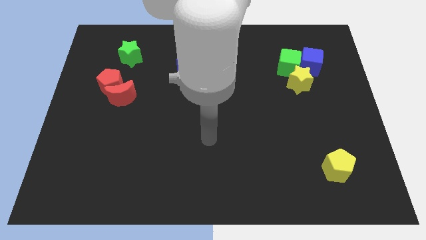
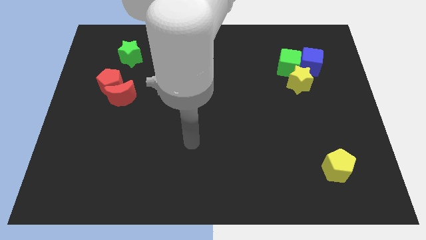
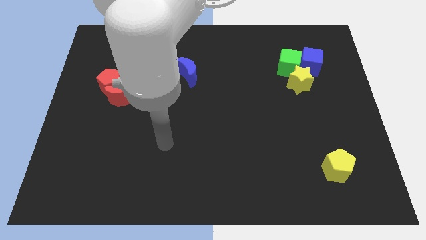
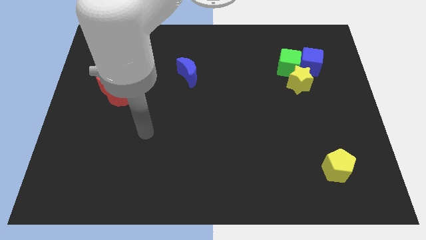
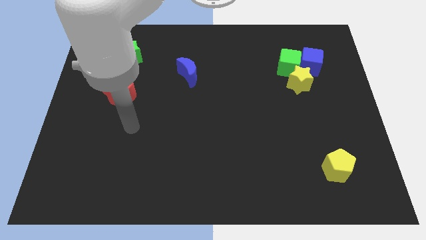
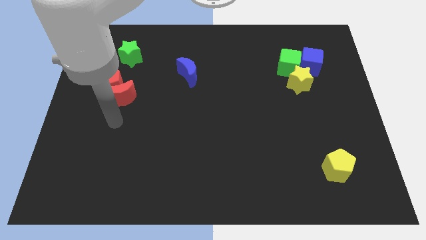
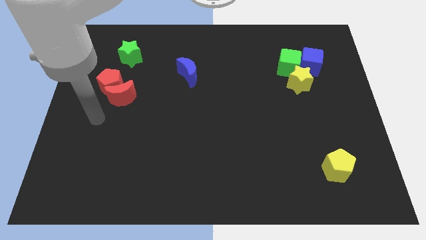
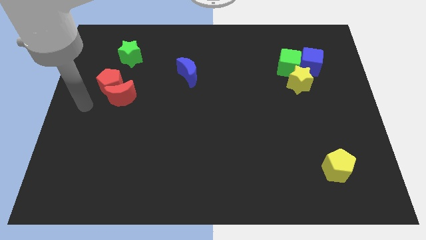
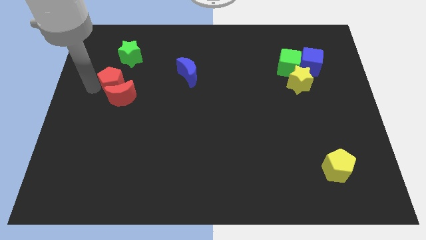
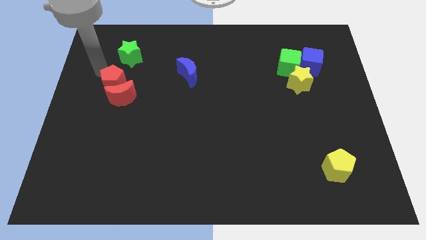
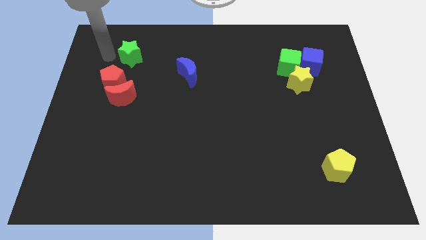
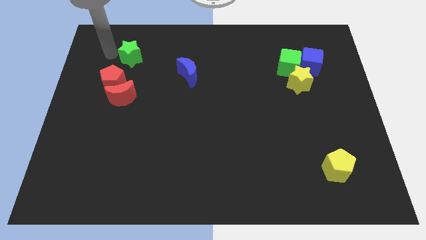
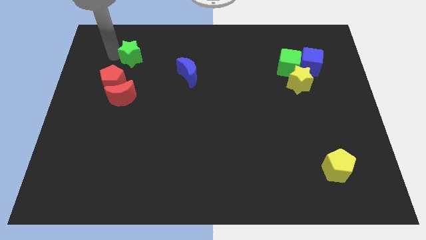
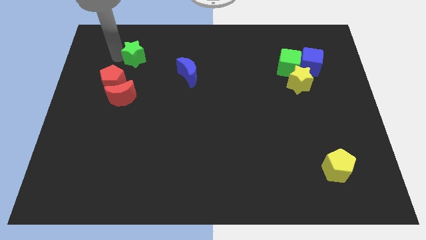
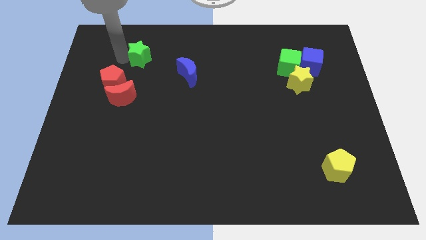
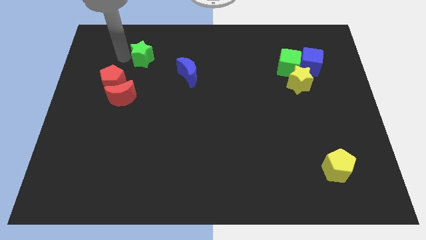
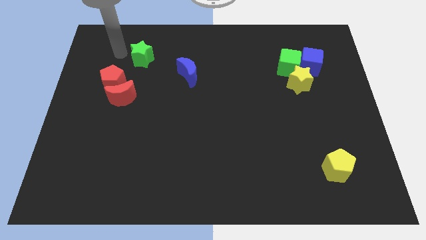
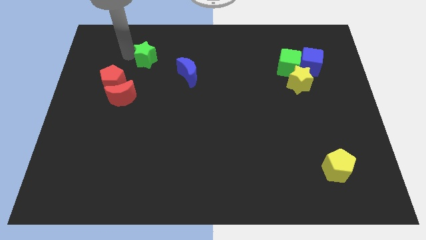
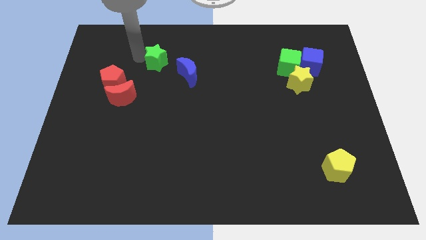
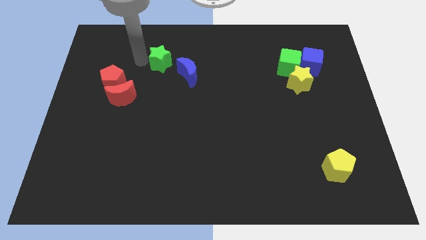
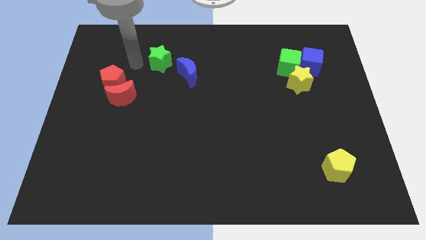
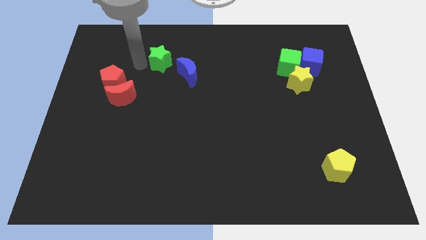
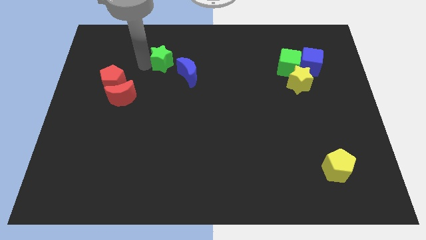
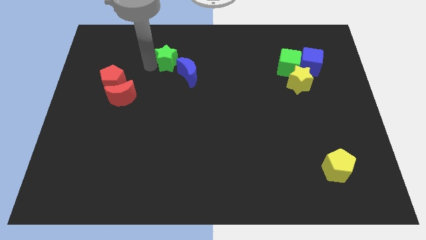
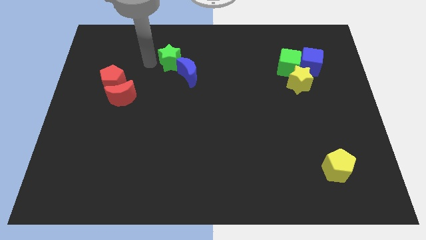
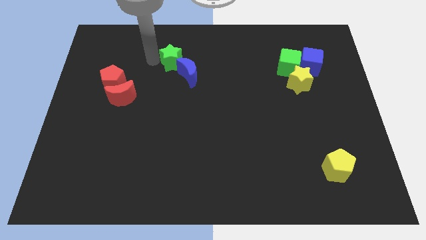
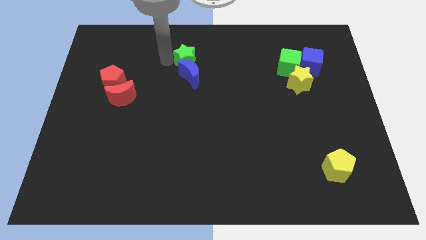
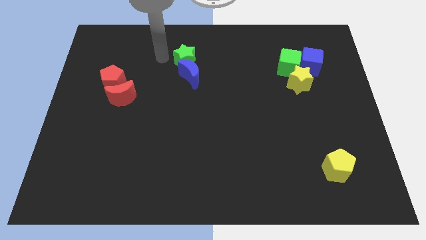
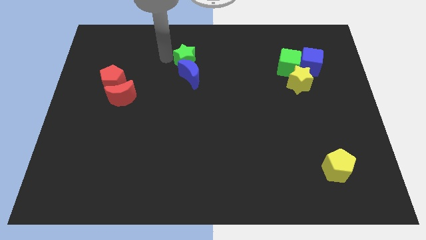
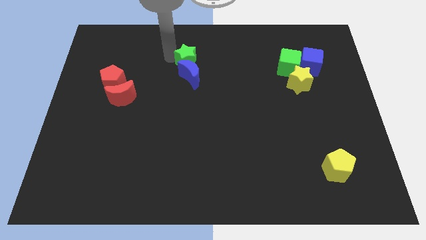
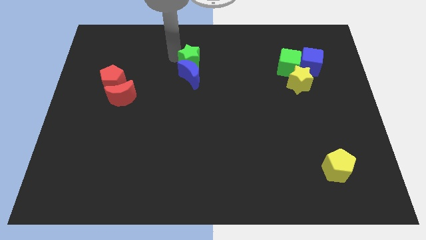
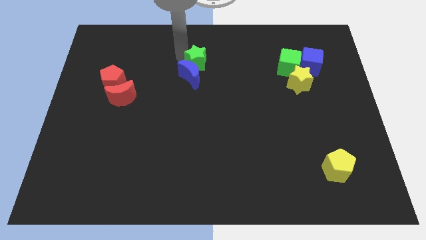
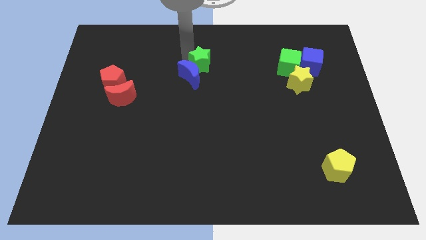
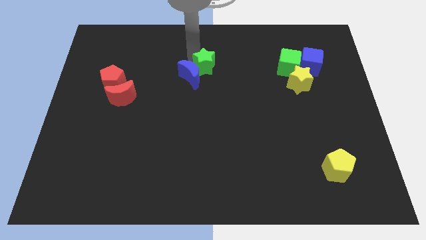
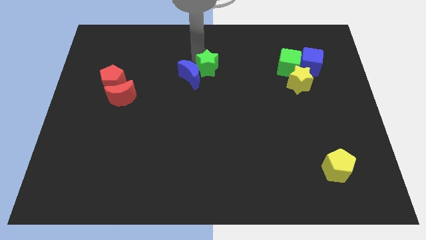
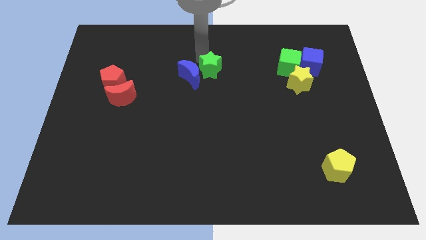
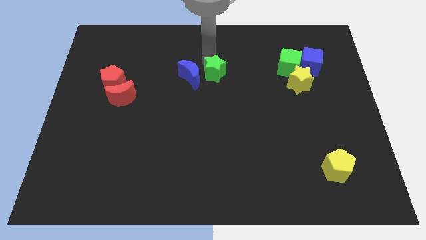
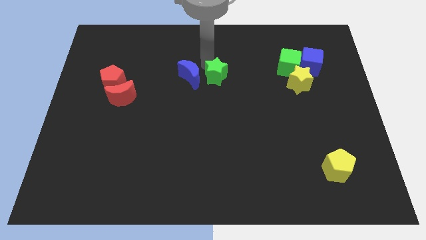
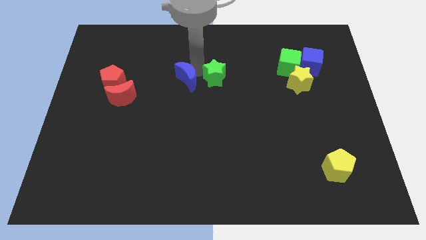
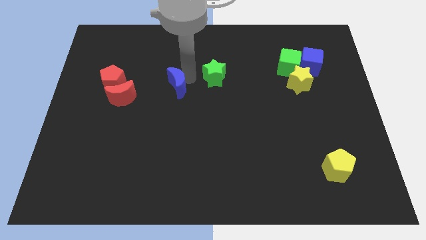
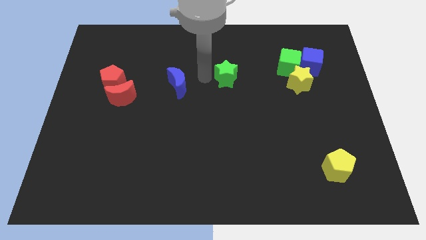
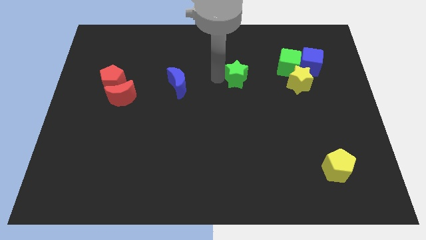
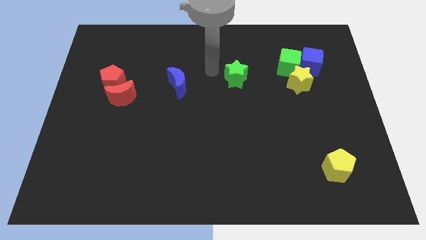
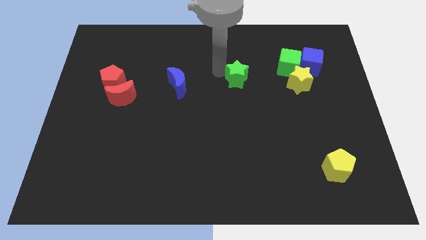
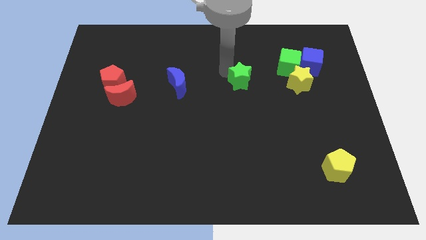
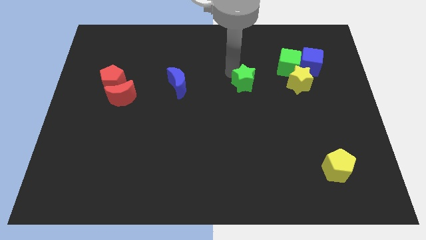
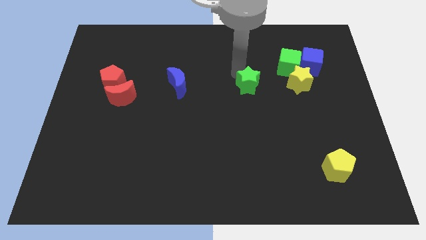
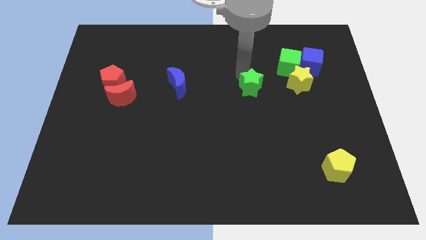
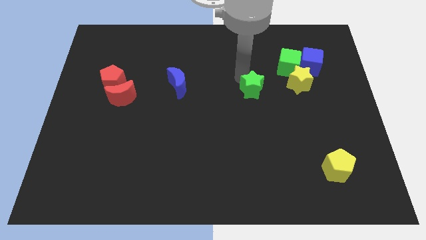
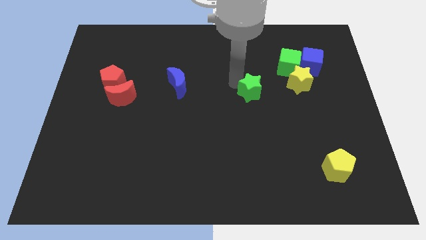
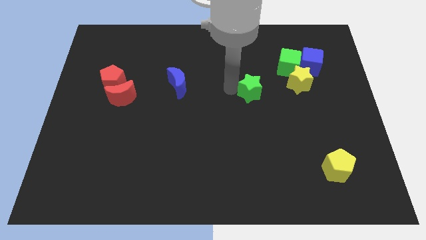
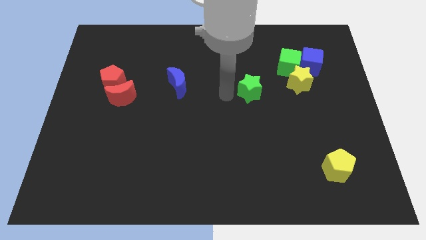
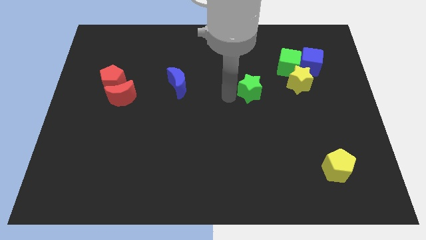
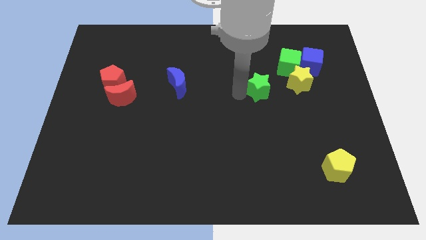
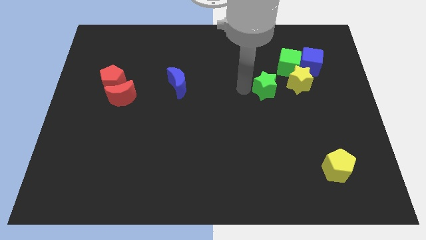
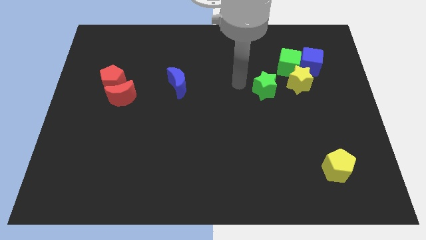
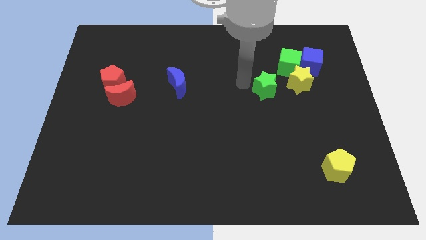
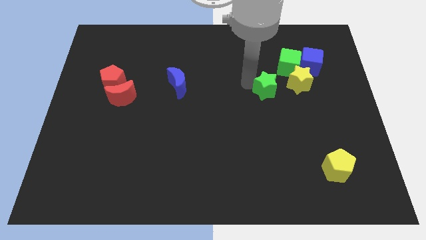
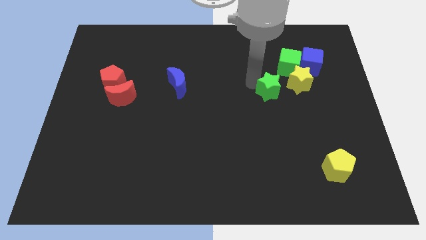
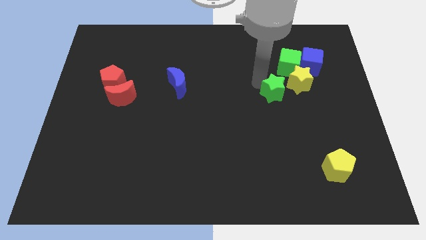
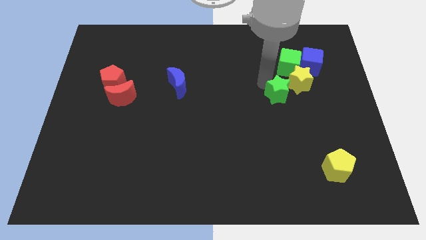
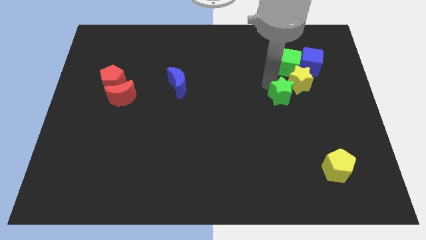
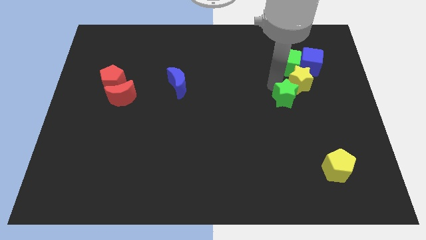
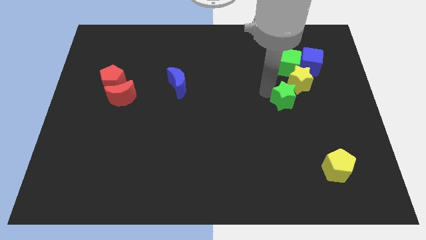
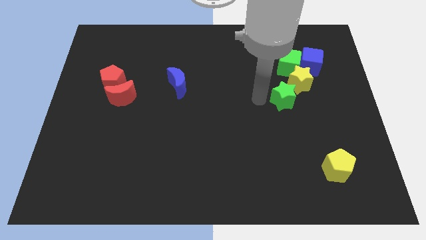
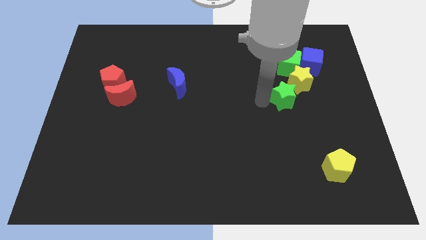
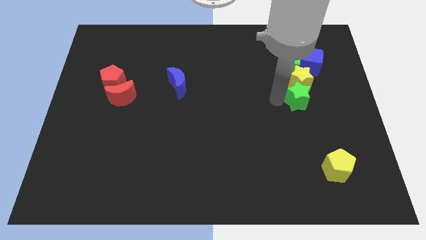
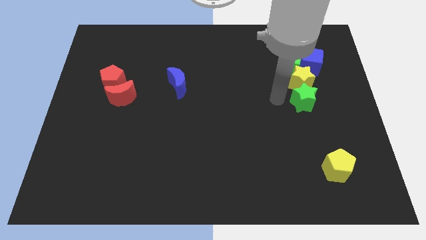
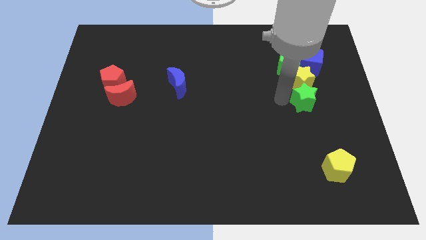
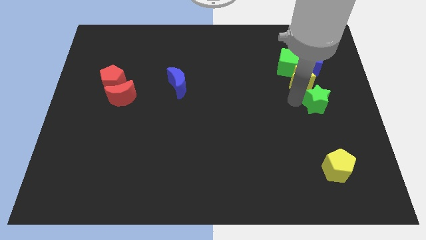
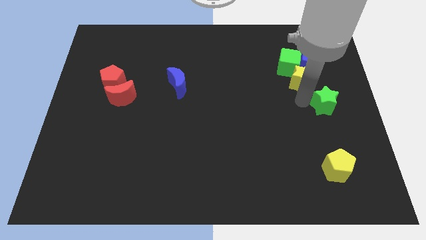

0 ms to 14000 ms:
push the green star to the center right

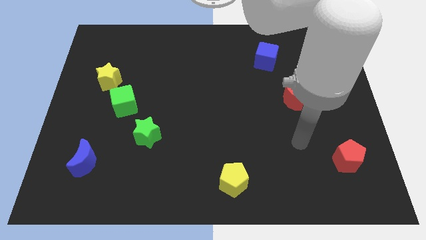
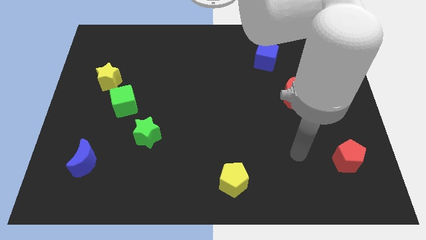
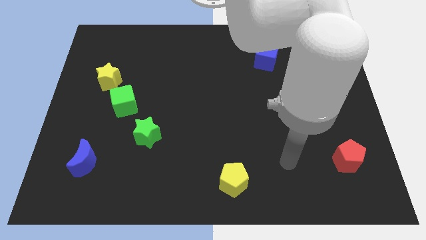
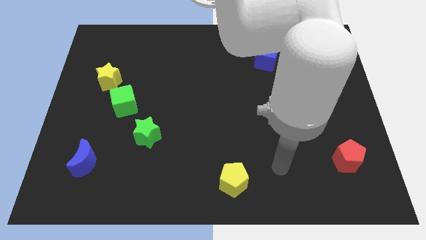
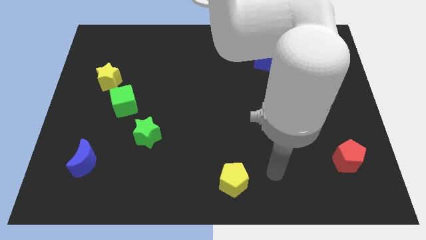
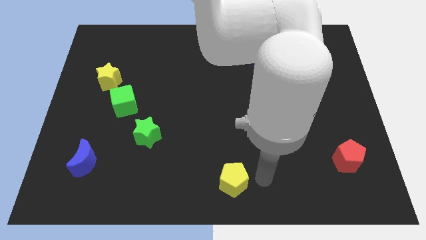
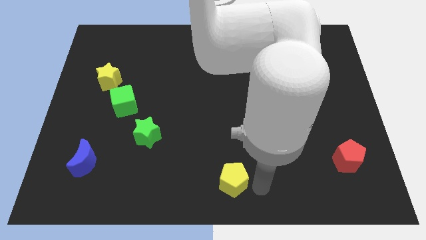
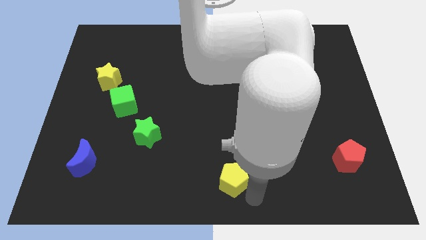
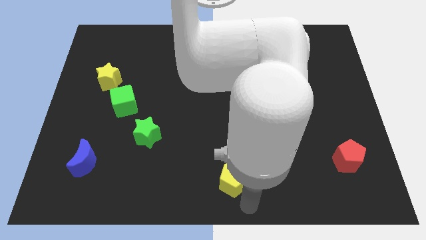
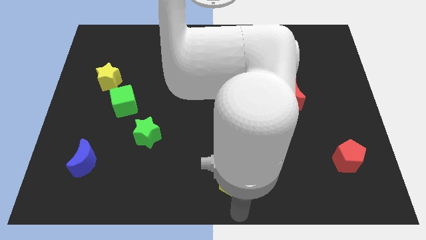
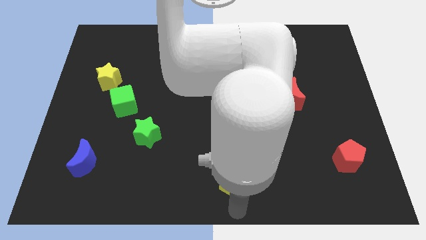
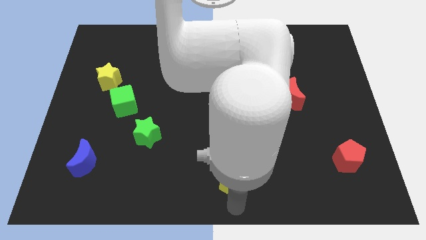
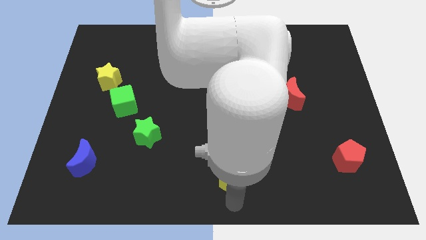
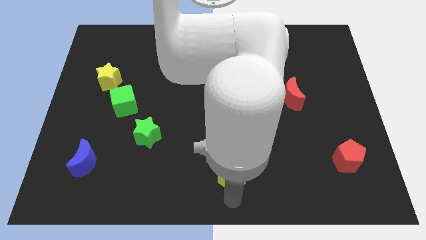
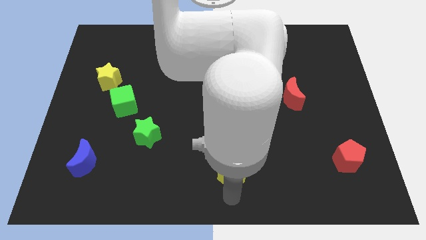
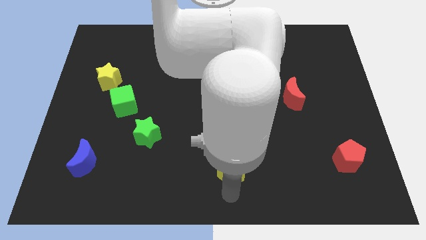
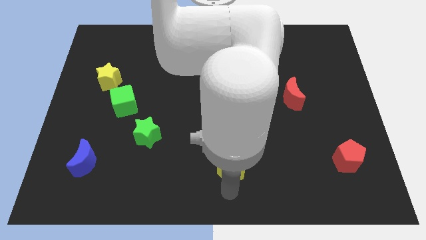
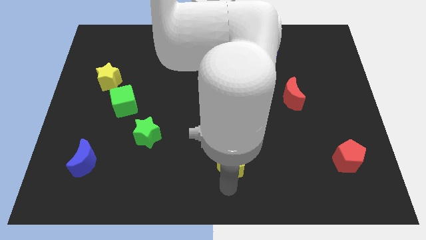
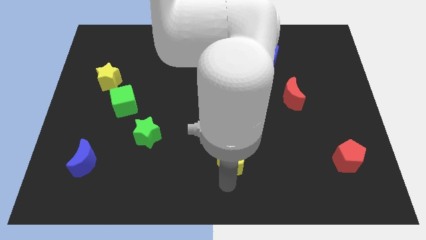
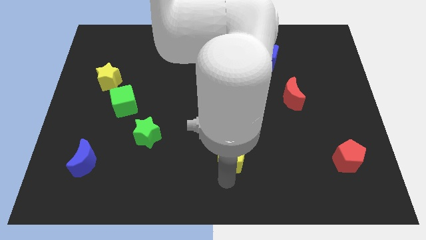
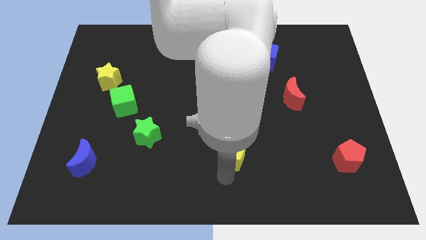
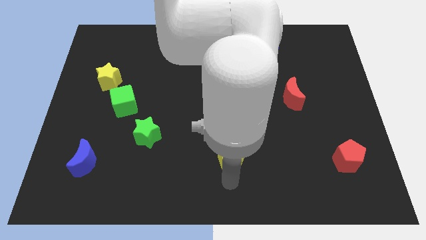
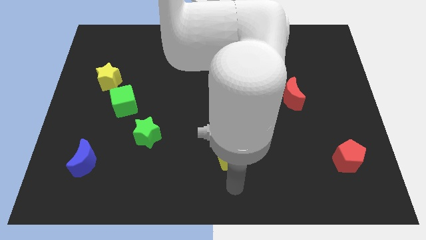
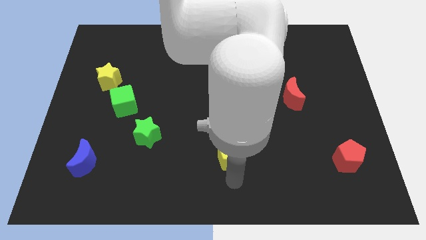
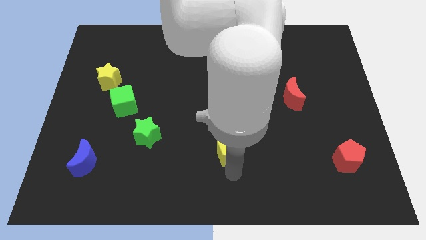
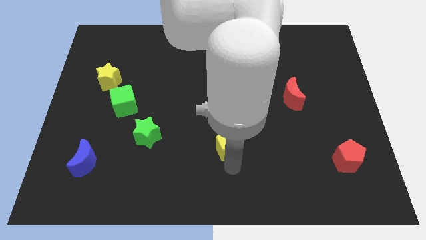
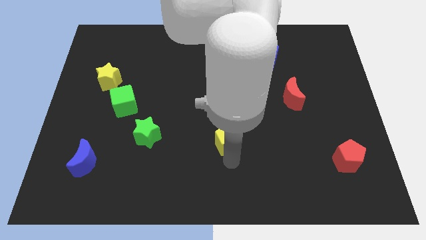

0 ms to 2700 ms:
push the yellow pentagon to the middle of the board
